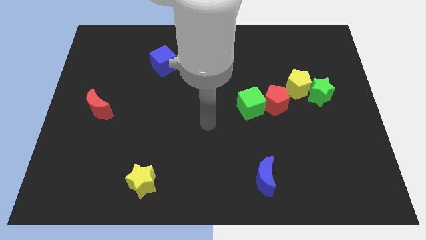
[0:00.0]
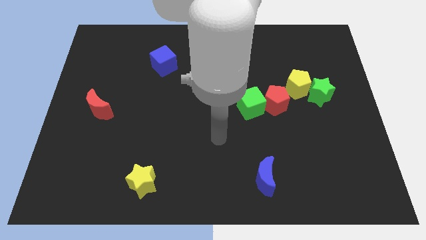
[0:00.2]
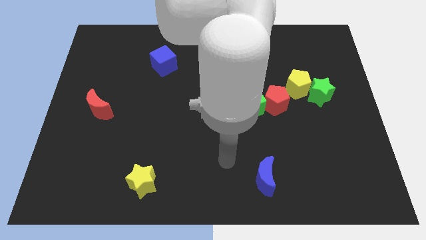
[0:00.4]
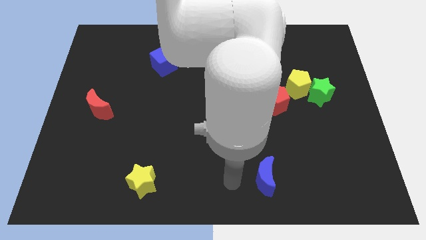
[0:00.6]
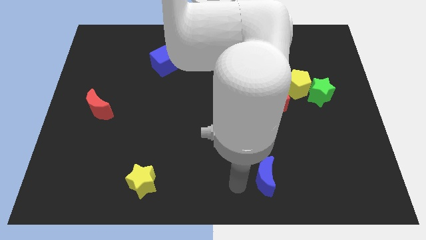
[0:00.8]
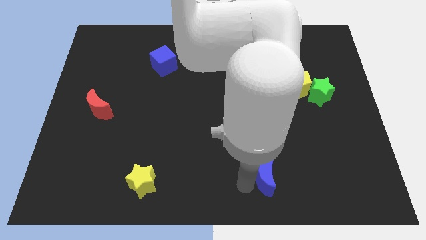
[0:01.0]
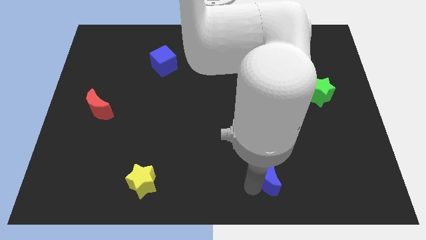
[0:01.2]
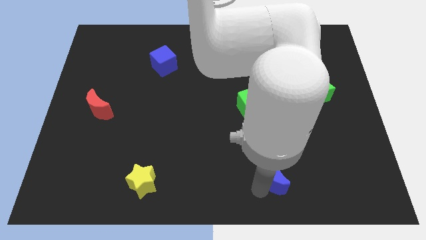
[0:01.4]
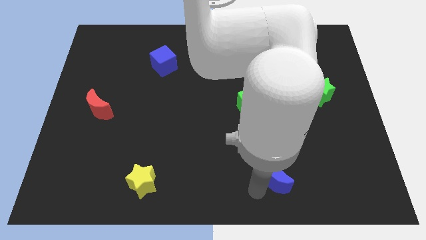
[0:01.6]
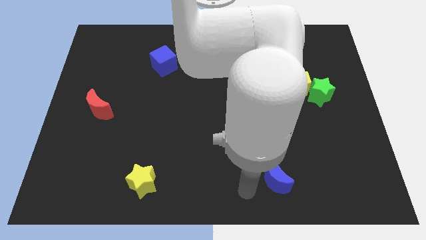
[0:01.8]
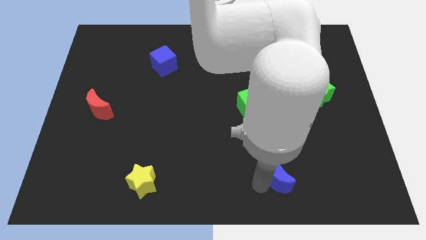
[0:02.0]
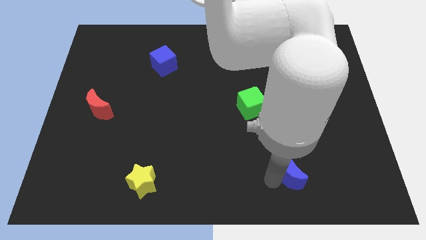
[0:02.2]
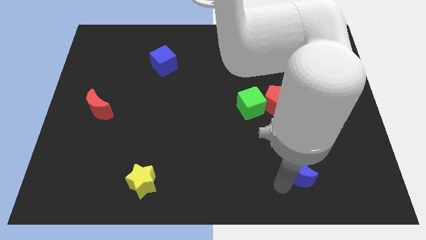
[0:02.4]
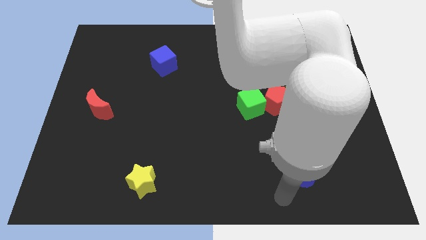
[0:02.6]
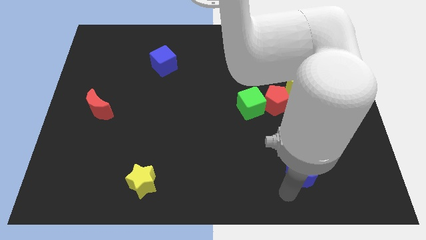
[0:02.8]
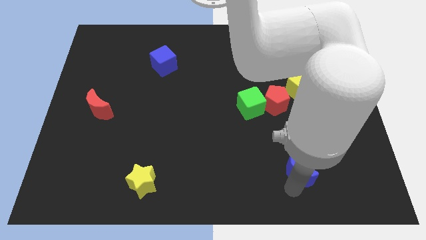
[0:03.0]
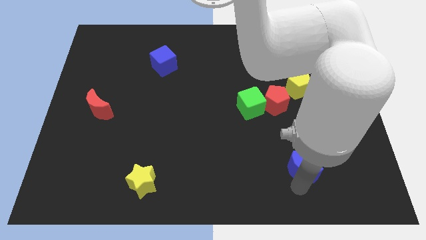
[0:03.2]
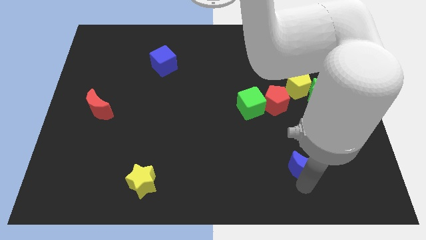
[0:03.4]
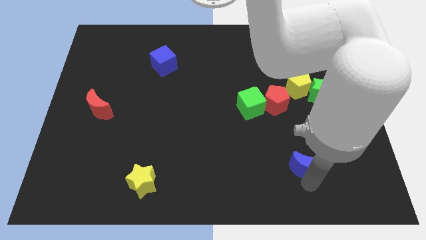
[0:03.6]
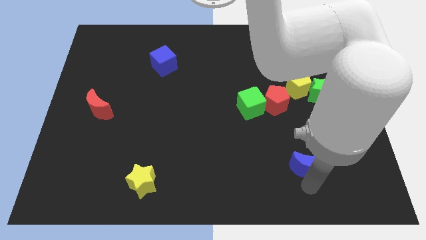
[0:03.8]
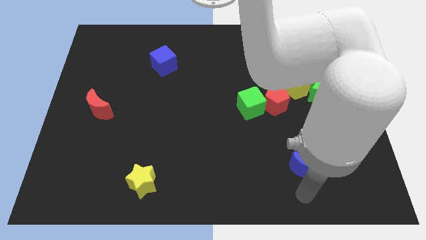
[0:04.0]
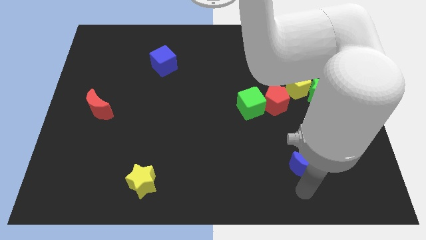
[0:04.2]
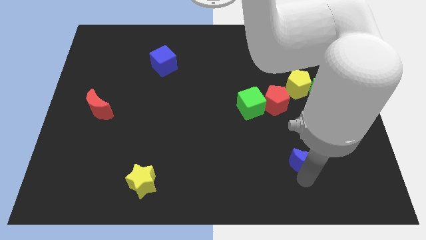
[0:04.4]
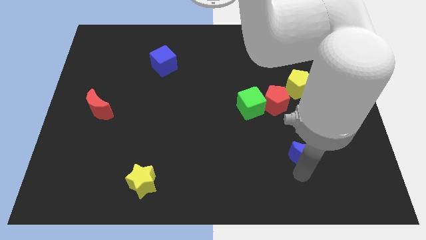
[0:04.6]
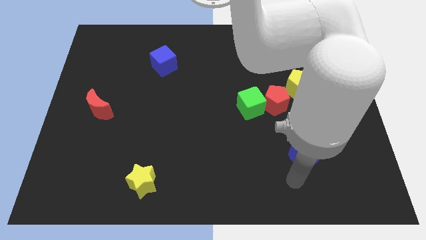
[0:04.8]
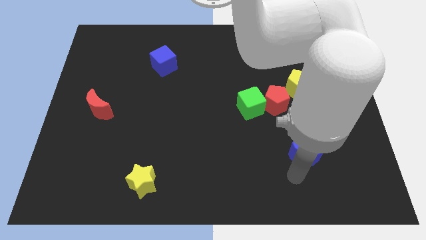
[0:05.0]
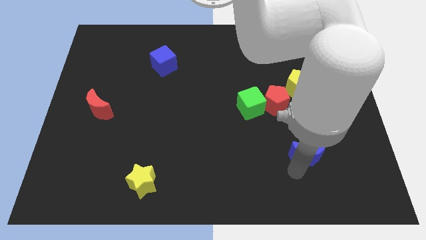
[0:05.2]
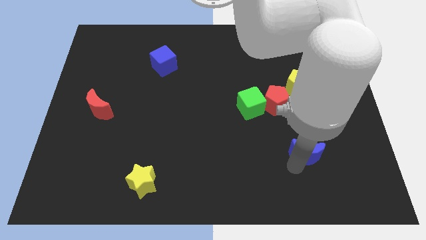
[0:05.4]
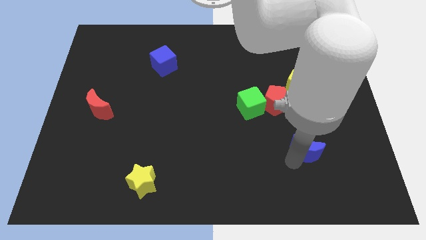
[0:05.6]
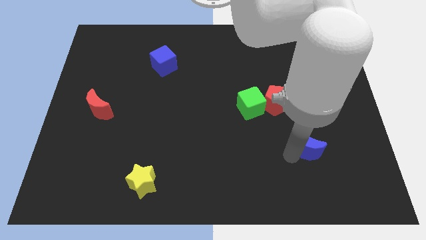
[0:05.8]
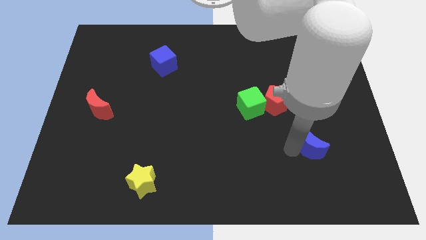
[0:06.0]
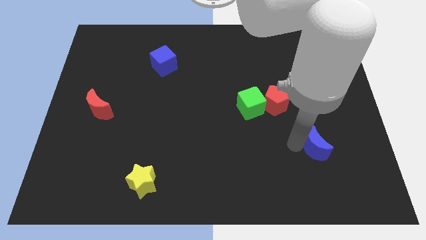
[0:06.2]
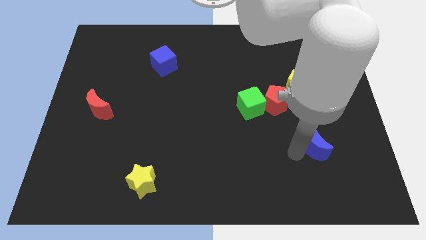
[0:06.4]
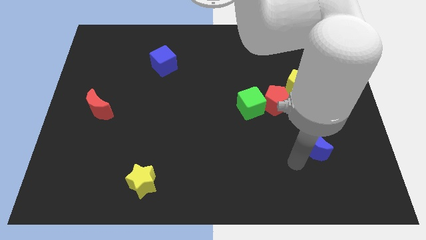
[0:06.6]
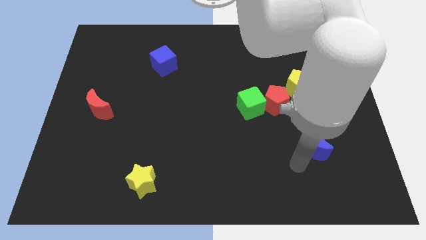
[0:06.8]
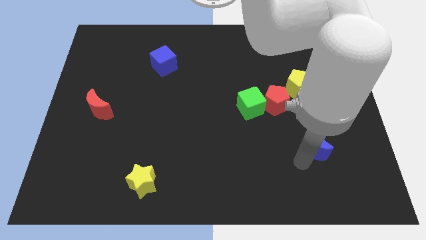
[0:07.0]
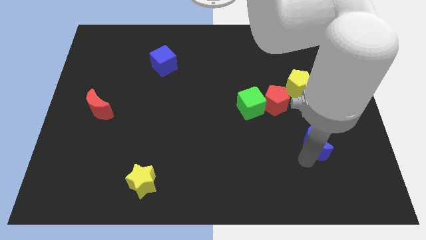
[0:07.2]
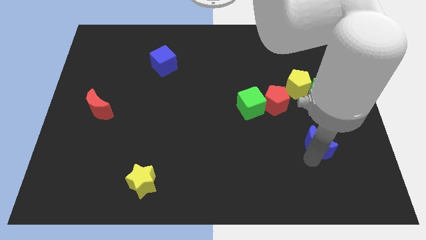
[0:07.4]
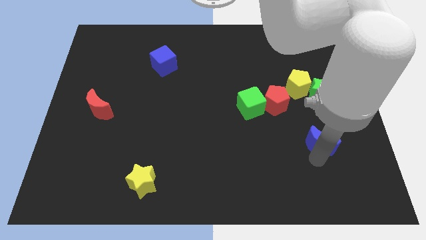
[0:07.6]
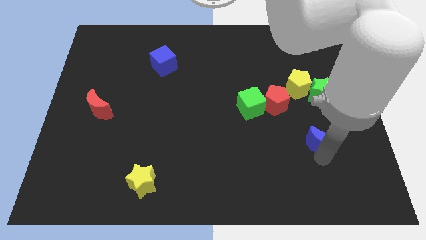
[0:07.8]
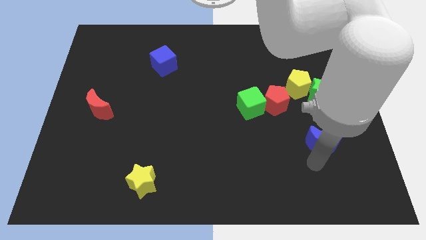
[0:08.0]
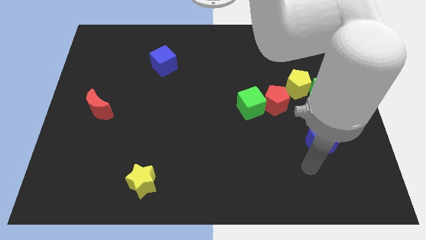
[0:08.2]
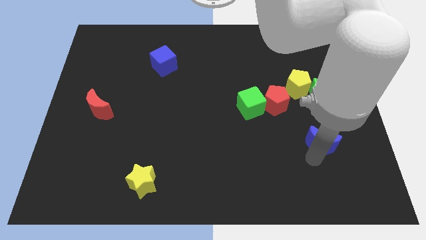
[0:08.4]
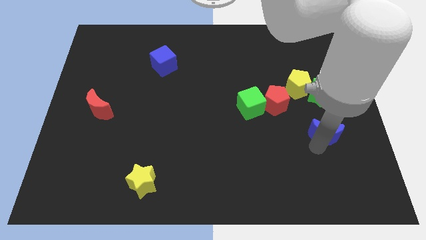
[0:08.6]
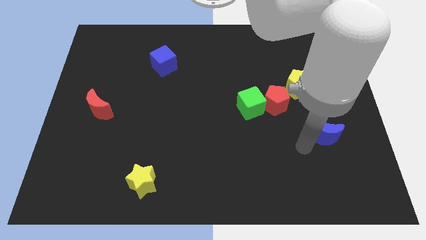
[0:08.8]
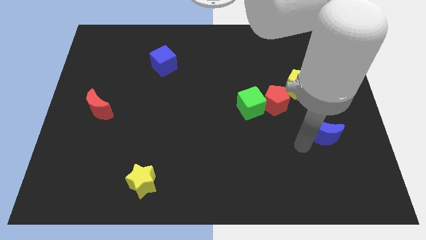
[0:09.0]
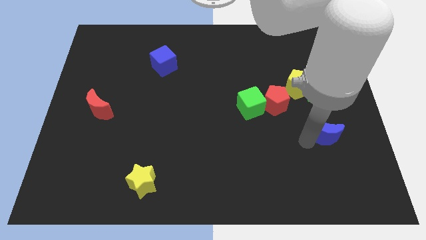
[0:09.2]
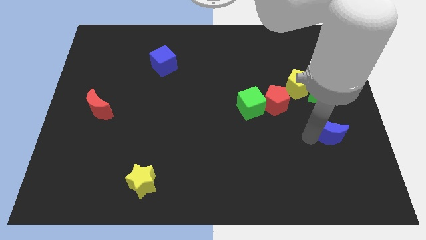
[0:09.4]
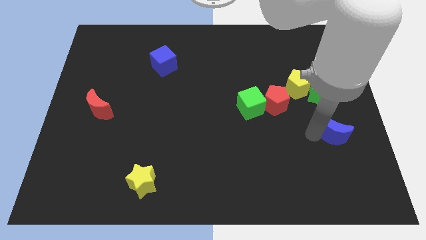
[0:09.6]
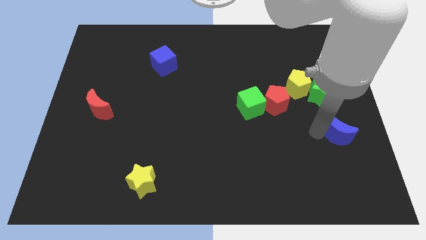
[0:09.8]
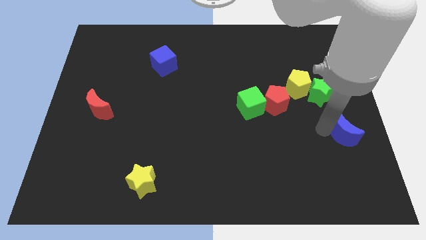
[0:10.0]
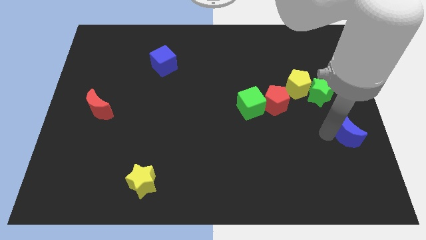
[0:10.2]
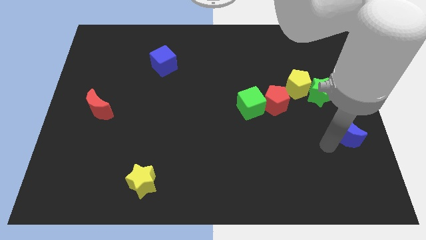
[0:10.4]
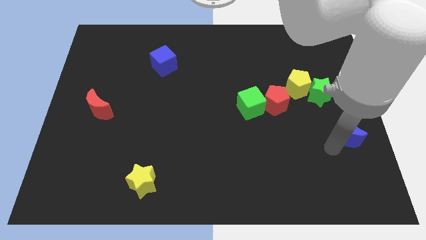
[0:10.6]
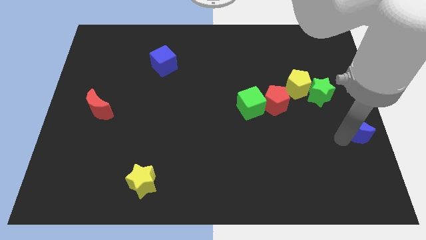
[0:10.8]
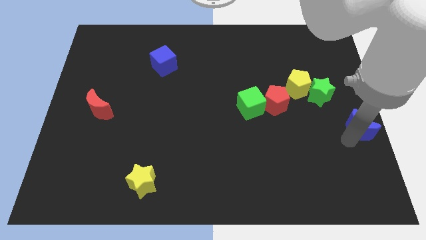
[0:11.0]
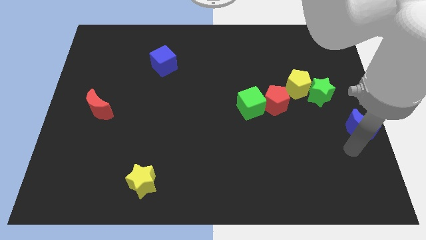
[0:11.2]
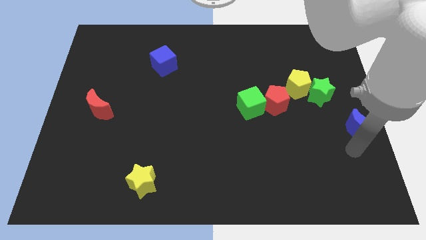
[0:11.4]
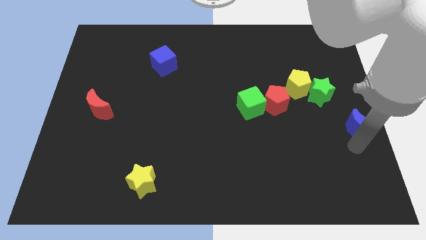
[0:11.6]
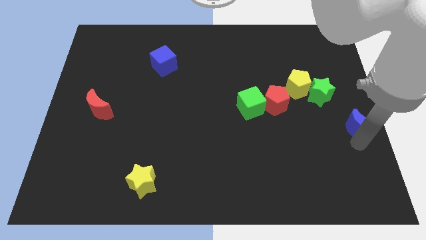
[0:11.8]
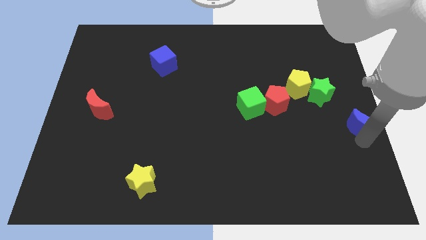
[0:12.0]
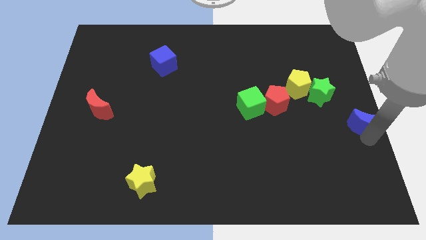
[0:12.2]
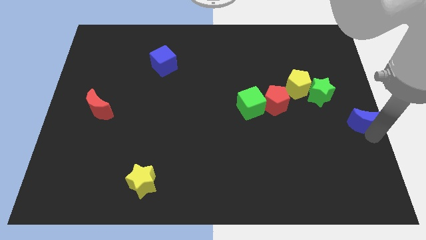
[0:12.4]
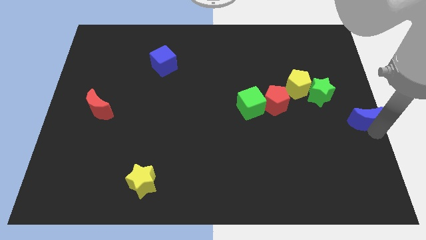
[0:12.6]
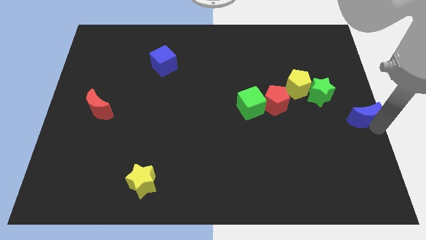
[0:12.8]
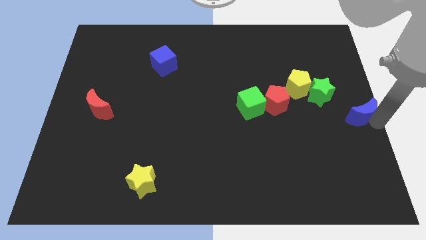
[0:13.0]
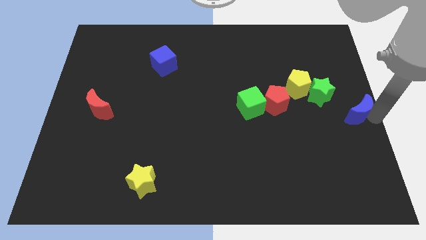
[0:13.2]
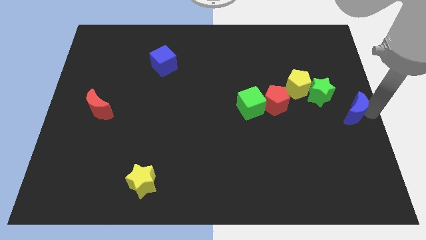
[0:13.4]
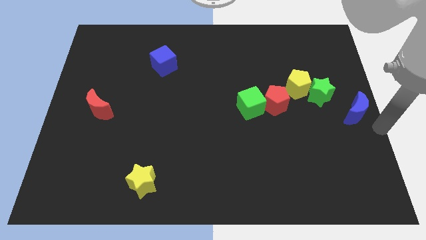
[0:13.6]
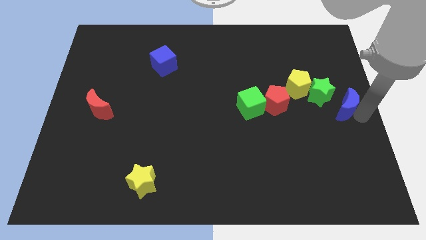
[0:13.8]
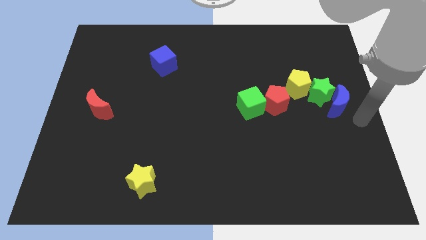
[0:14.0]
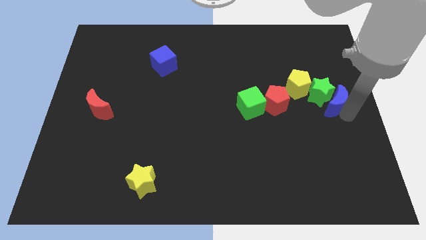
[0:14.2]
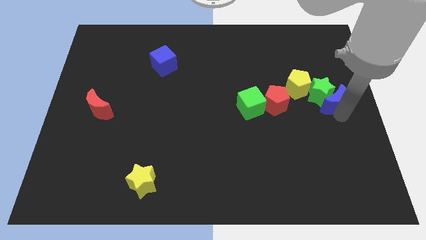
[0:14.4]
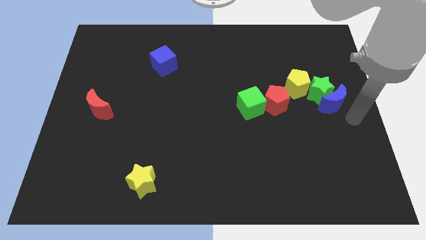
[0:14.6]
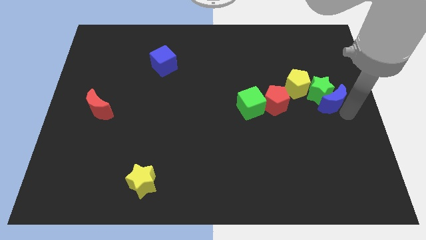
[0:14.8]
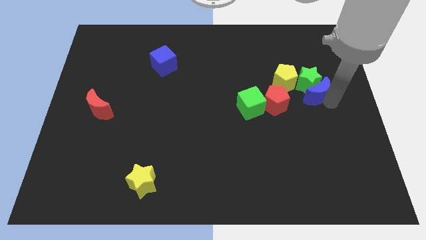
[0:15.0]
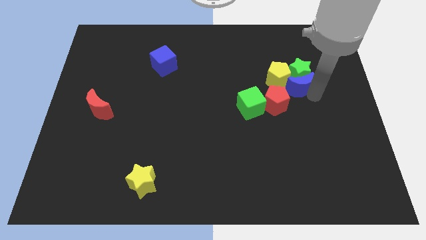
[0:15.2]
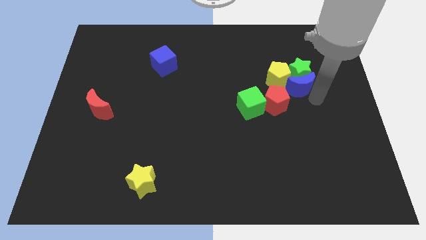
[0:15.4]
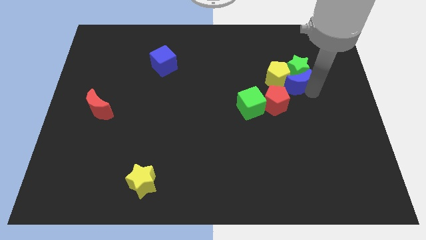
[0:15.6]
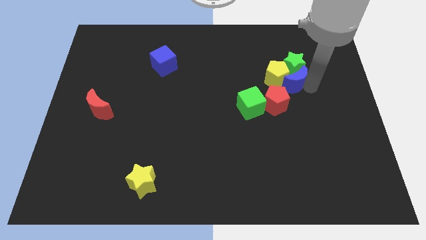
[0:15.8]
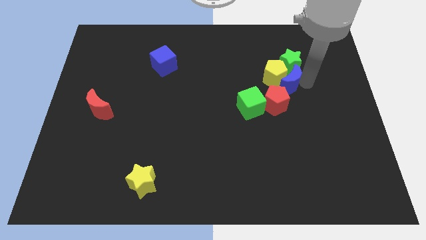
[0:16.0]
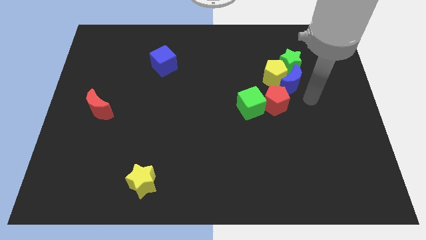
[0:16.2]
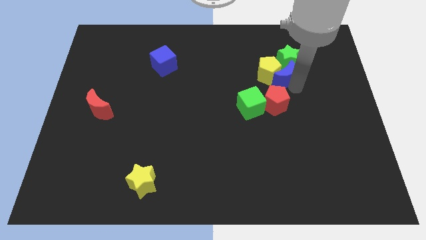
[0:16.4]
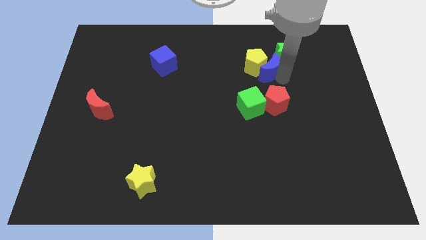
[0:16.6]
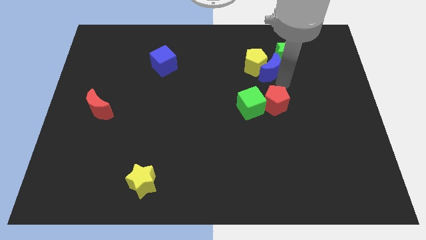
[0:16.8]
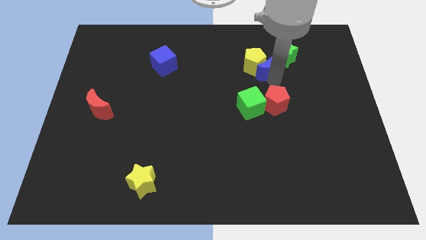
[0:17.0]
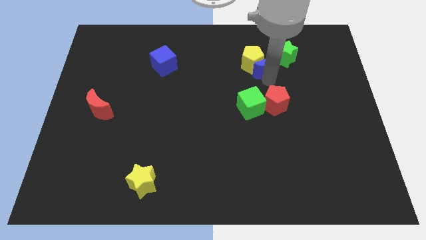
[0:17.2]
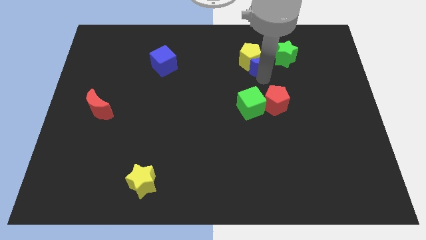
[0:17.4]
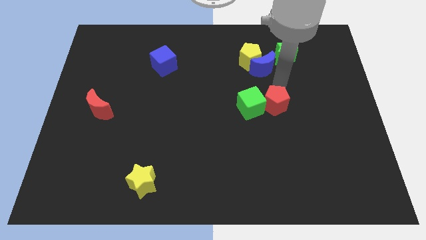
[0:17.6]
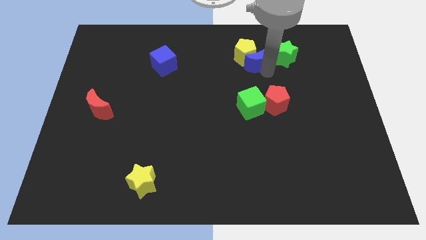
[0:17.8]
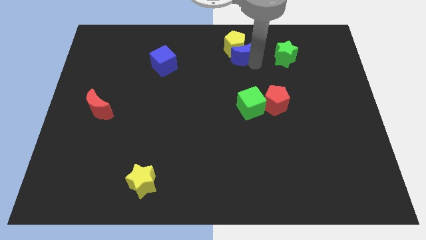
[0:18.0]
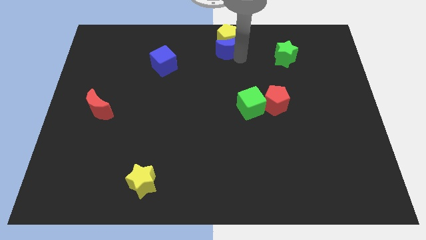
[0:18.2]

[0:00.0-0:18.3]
push the blue moon to the top
